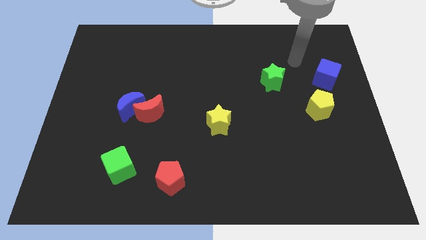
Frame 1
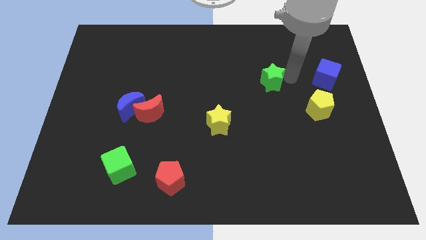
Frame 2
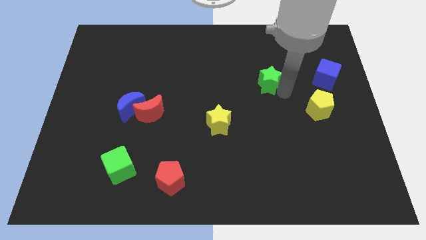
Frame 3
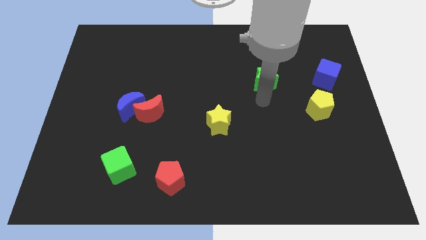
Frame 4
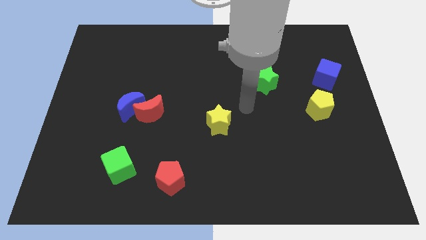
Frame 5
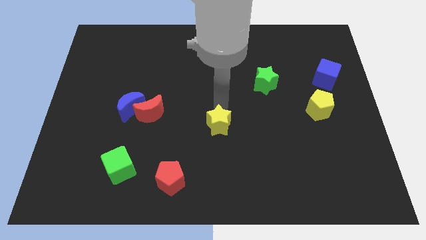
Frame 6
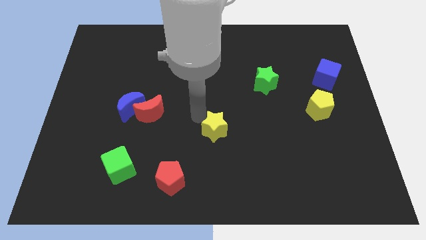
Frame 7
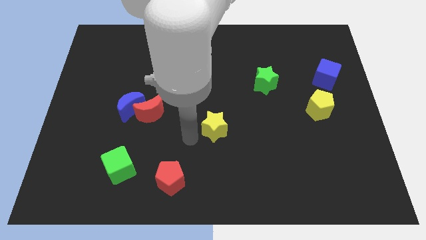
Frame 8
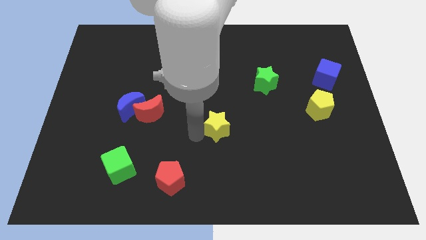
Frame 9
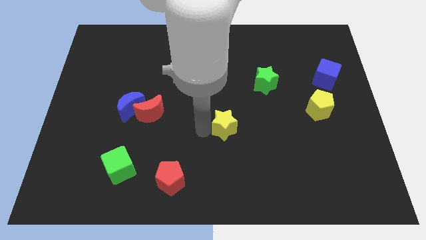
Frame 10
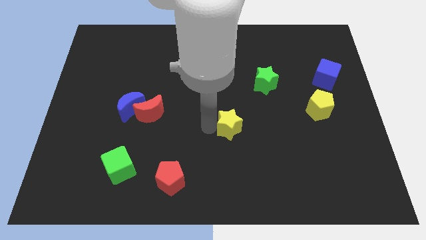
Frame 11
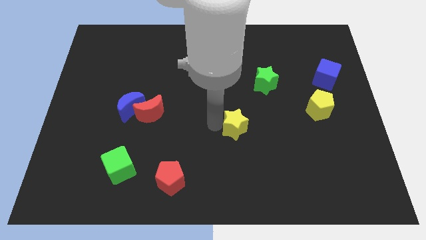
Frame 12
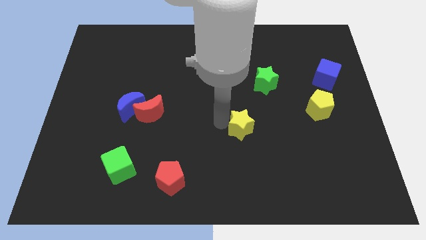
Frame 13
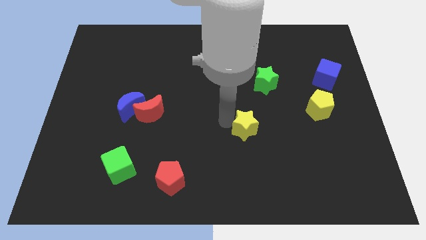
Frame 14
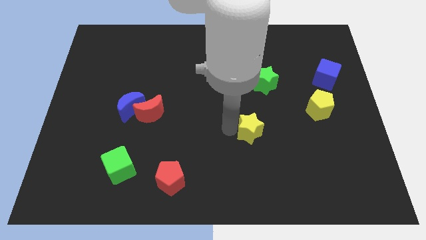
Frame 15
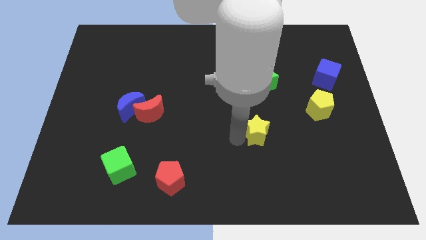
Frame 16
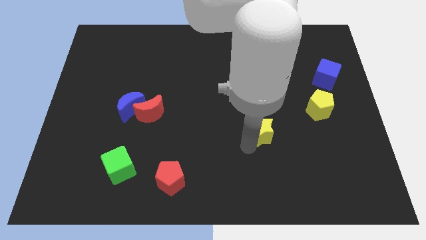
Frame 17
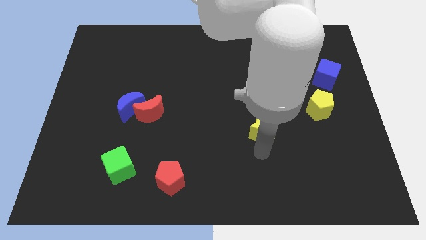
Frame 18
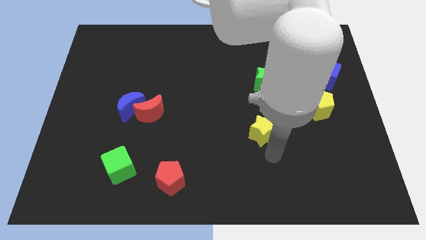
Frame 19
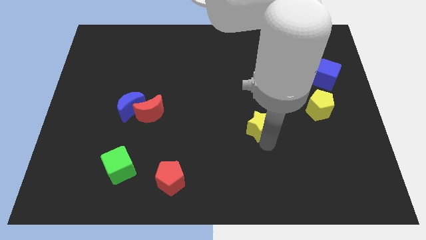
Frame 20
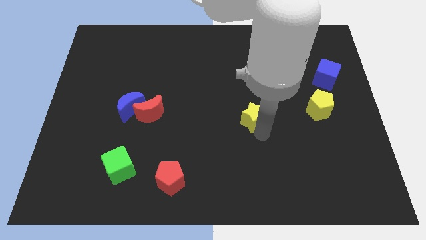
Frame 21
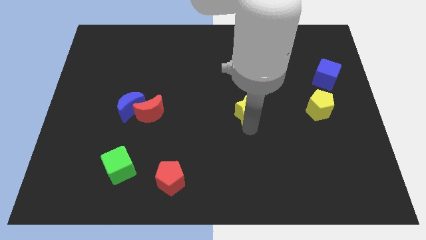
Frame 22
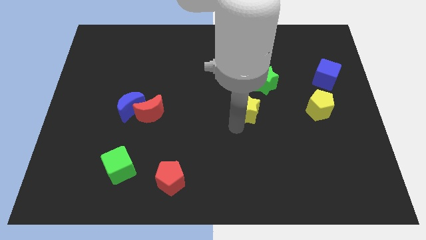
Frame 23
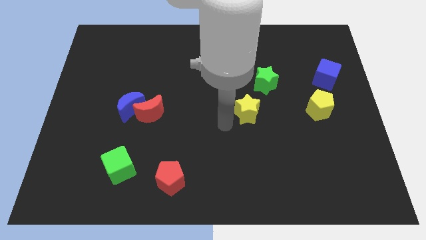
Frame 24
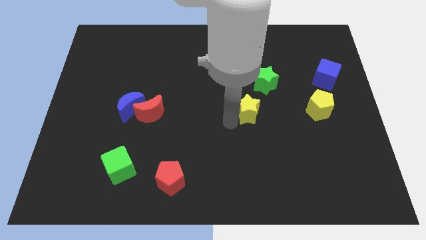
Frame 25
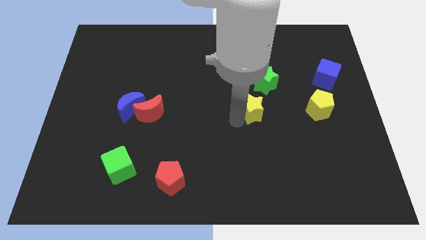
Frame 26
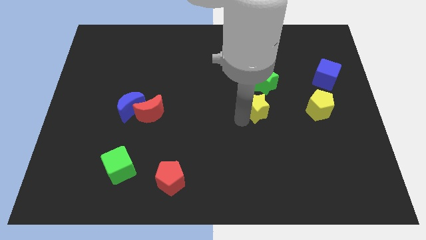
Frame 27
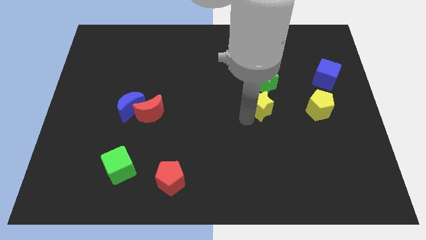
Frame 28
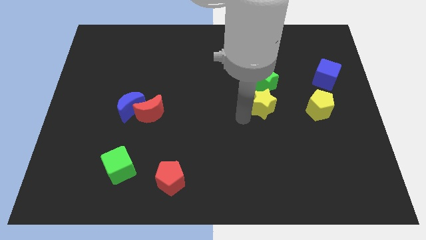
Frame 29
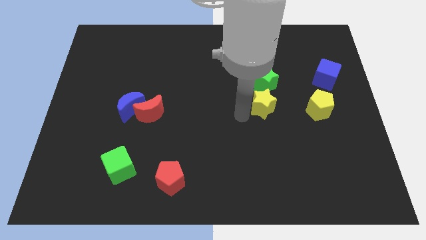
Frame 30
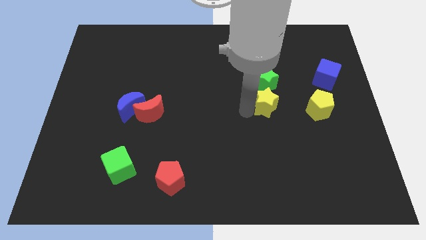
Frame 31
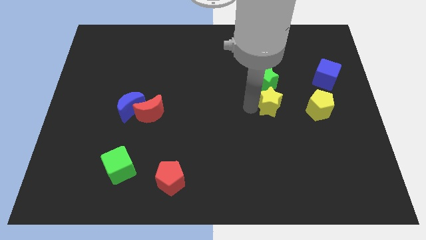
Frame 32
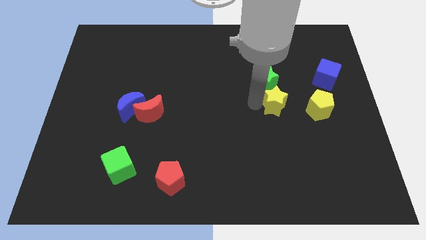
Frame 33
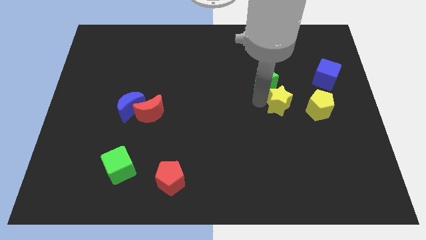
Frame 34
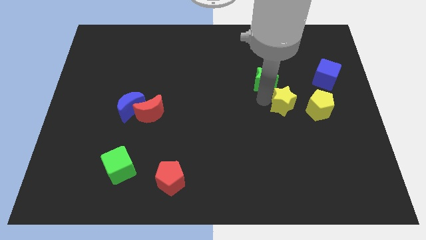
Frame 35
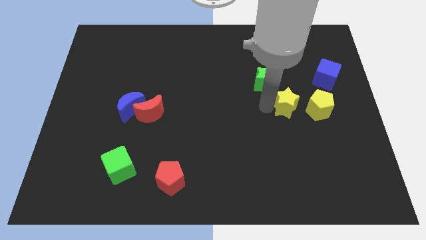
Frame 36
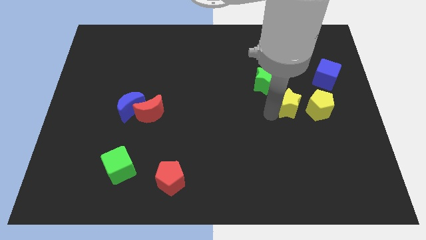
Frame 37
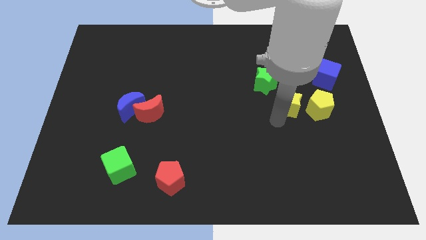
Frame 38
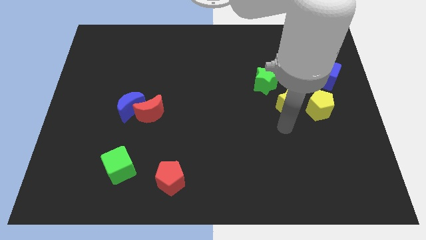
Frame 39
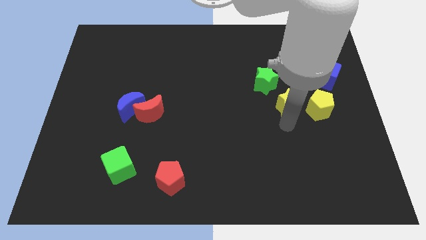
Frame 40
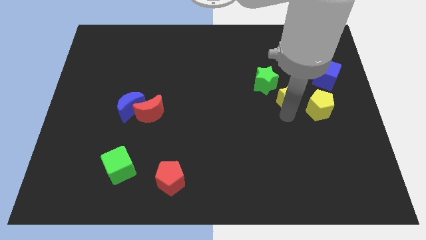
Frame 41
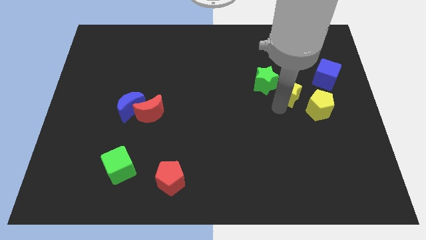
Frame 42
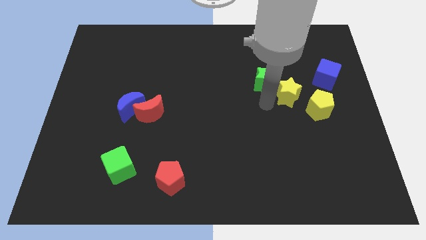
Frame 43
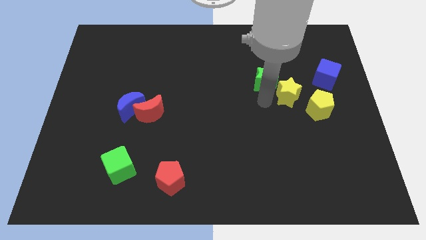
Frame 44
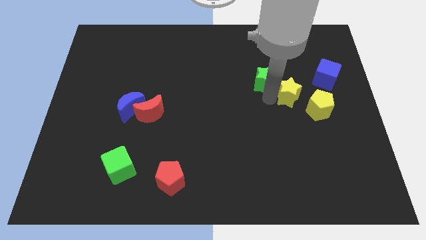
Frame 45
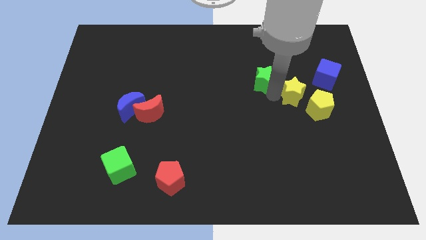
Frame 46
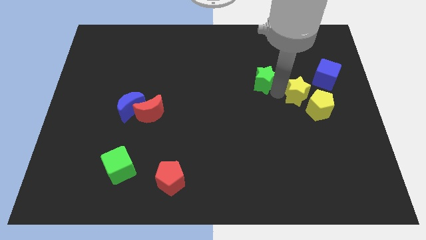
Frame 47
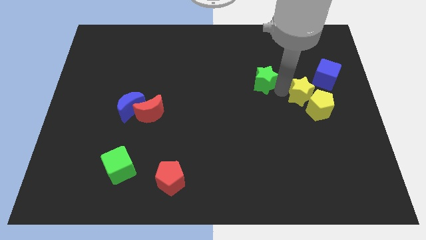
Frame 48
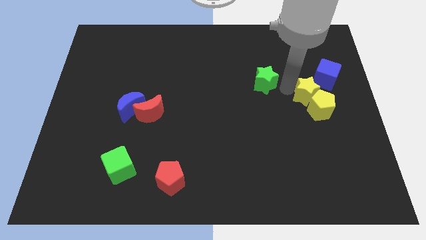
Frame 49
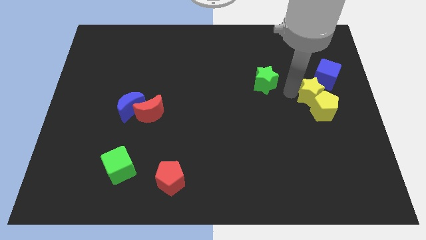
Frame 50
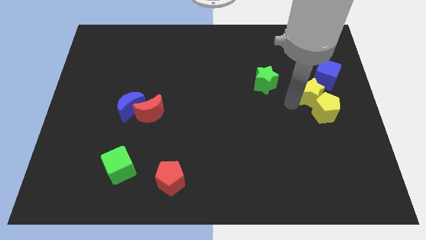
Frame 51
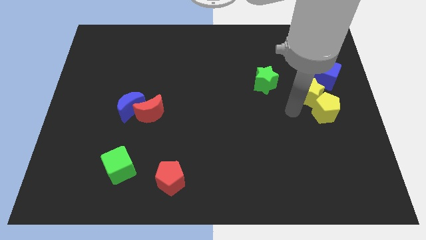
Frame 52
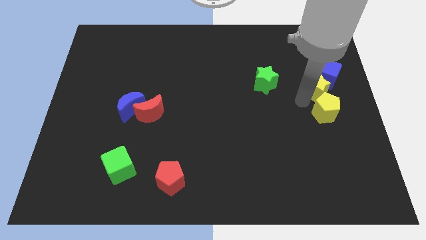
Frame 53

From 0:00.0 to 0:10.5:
put the yellow star towards the blue cube

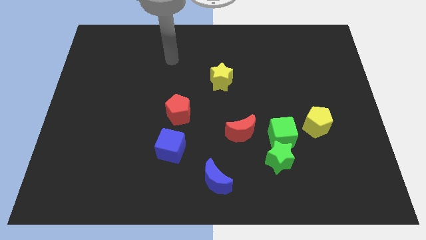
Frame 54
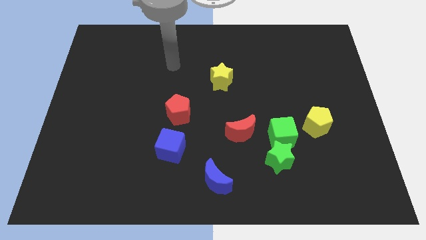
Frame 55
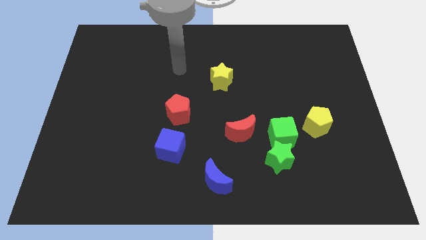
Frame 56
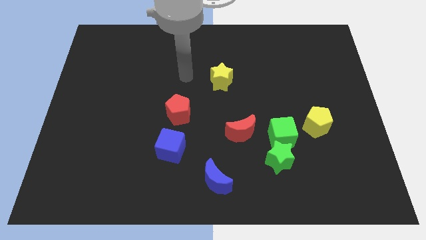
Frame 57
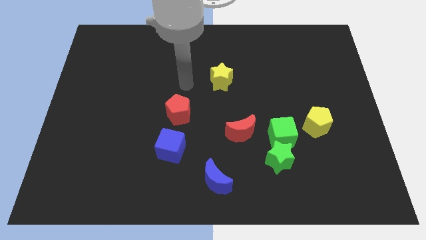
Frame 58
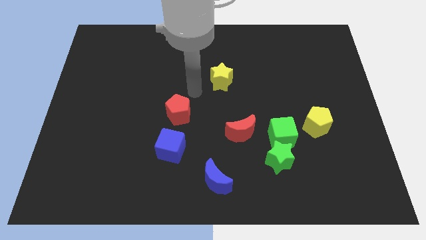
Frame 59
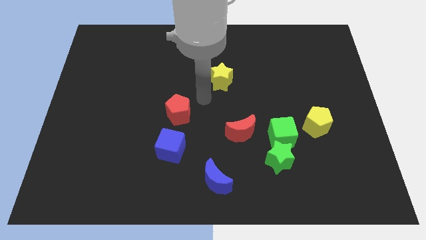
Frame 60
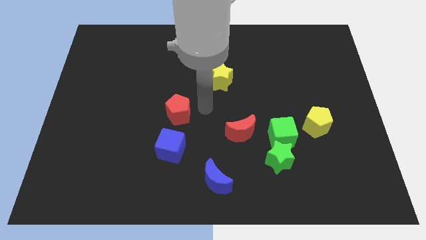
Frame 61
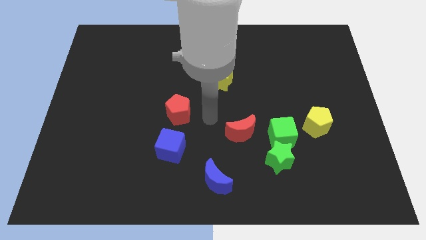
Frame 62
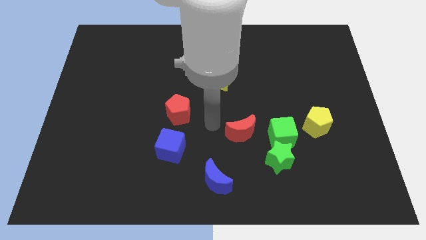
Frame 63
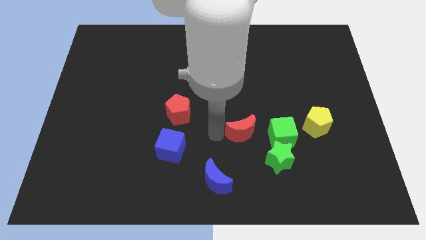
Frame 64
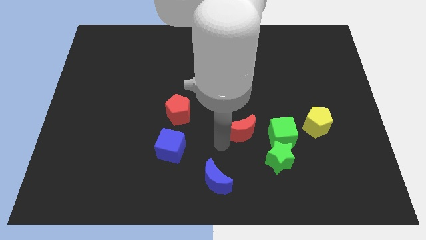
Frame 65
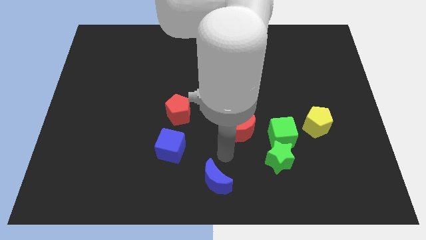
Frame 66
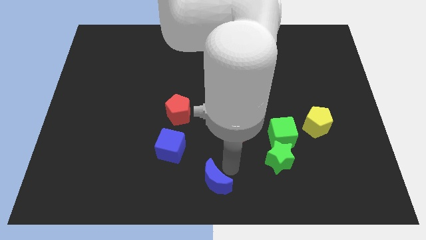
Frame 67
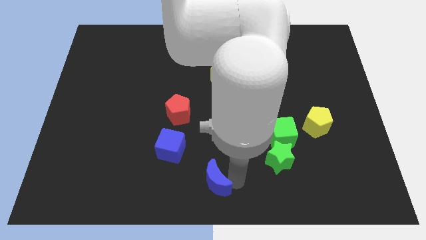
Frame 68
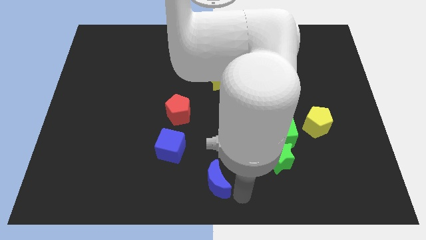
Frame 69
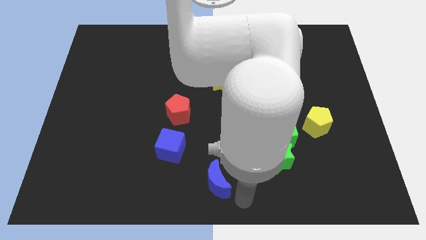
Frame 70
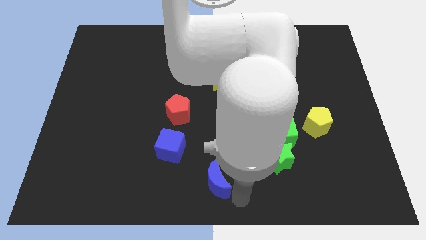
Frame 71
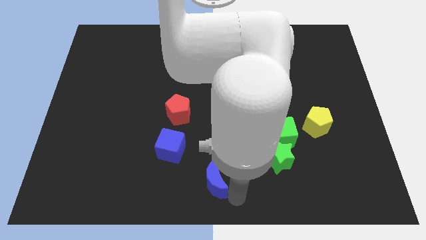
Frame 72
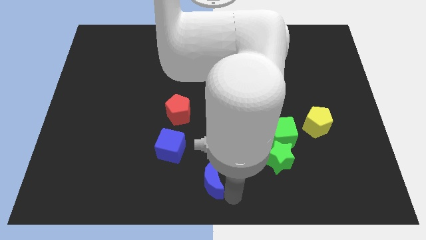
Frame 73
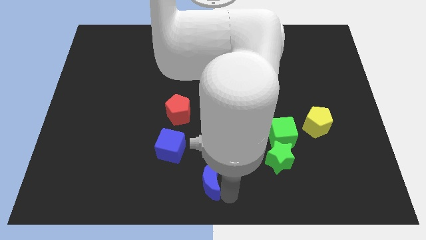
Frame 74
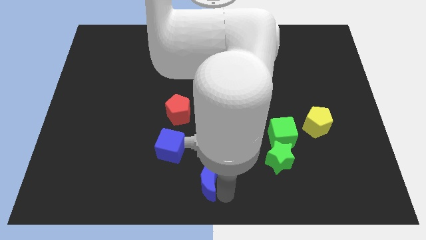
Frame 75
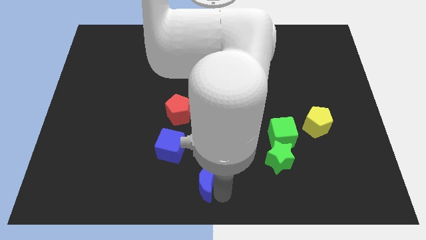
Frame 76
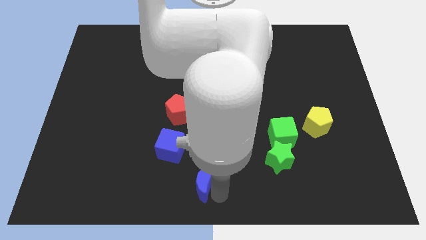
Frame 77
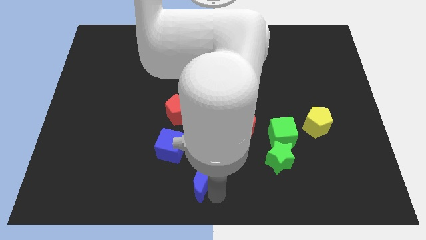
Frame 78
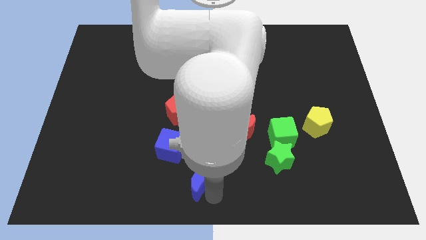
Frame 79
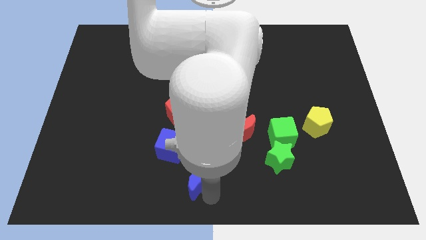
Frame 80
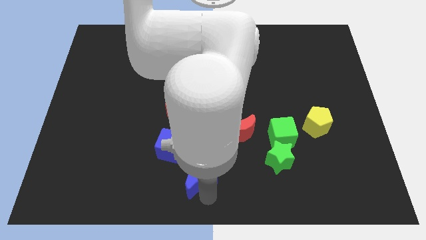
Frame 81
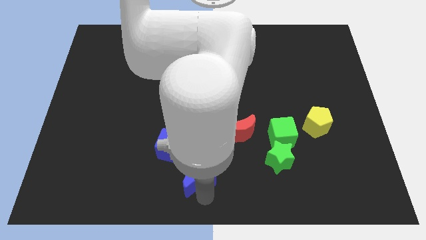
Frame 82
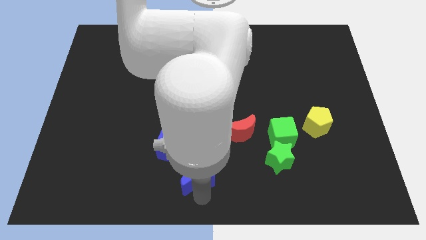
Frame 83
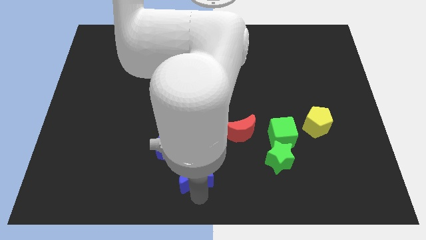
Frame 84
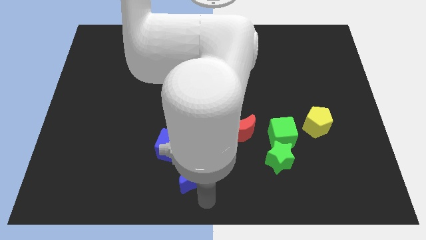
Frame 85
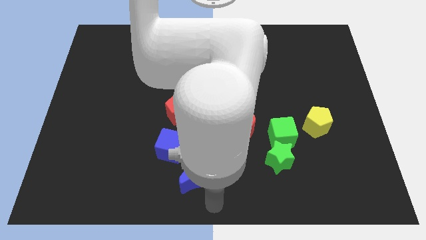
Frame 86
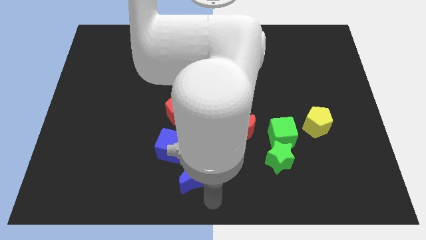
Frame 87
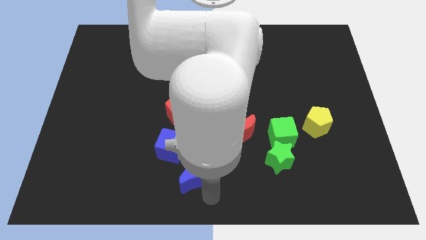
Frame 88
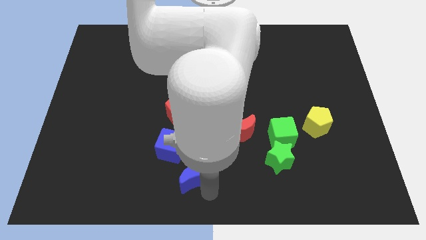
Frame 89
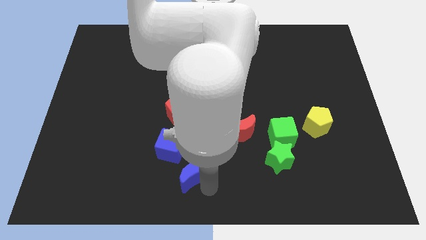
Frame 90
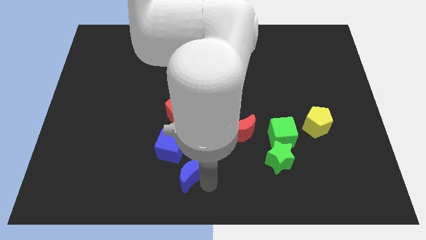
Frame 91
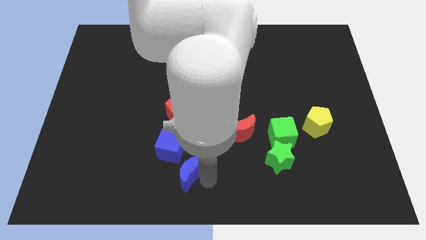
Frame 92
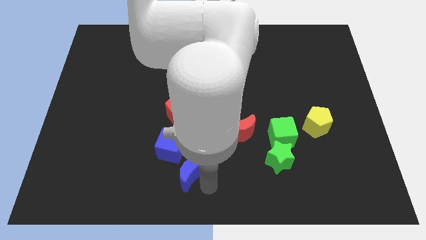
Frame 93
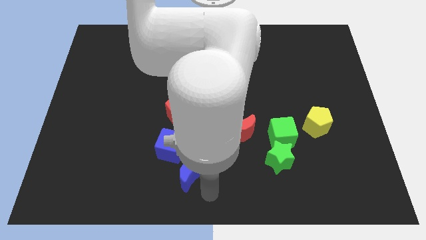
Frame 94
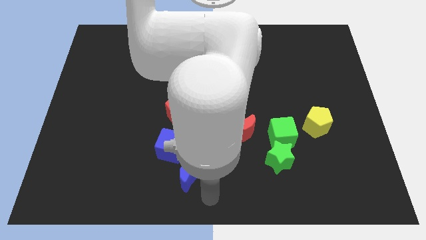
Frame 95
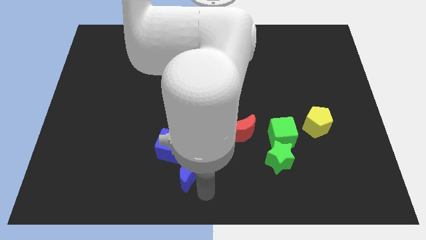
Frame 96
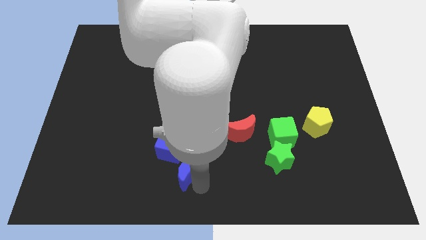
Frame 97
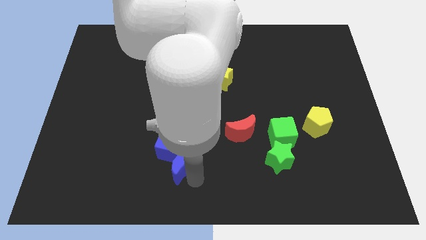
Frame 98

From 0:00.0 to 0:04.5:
push the blue moon next to the blue cube
